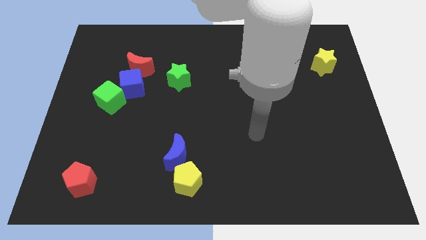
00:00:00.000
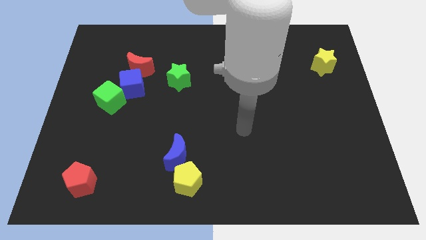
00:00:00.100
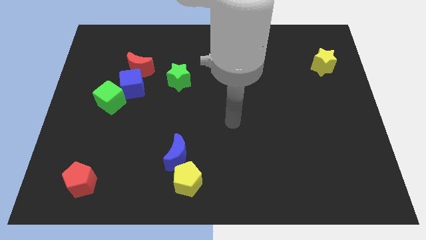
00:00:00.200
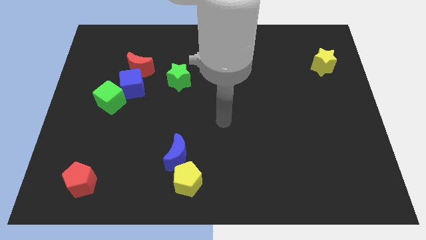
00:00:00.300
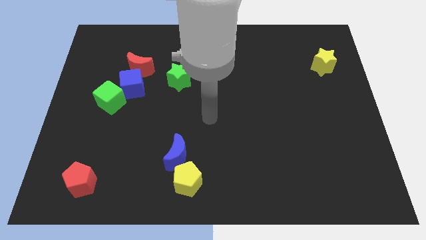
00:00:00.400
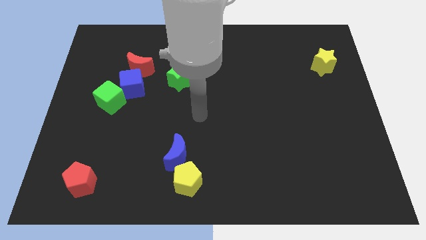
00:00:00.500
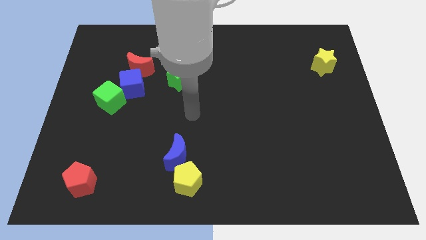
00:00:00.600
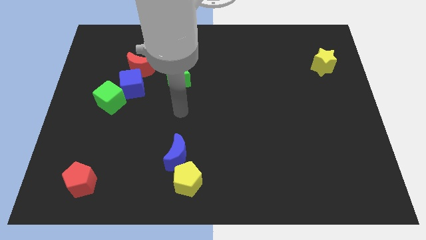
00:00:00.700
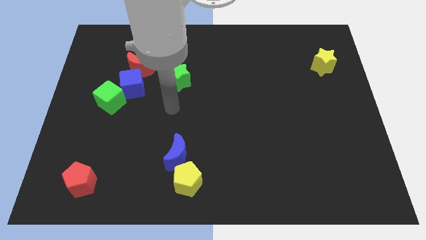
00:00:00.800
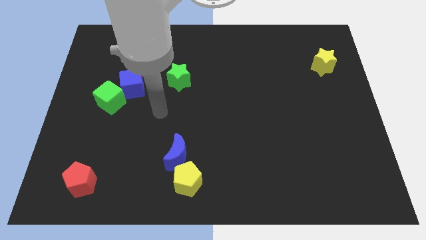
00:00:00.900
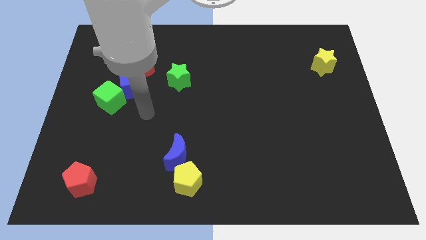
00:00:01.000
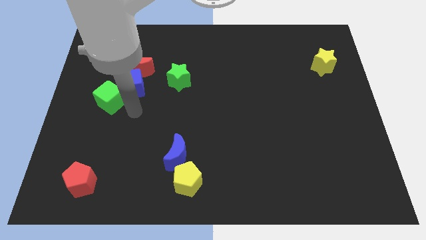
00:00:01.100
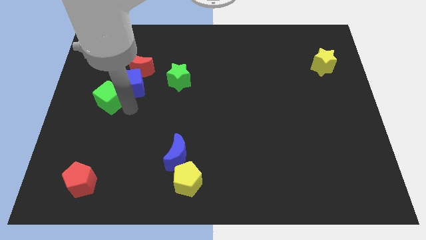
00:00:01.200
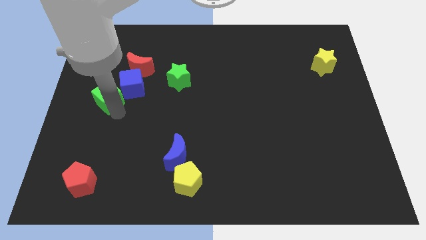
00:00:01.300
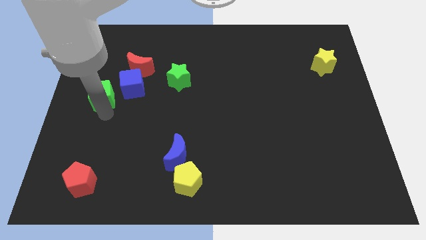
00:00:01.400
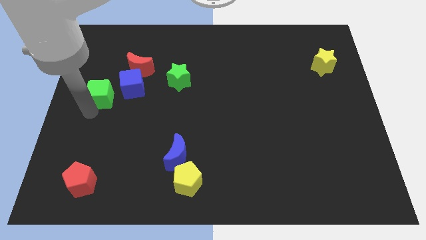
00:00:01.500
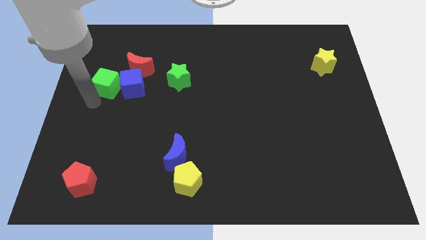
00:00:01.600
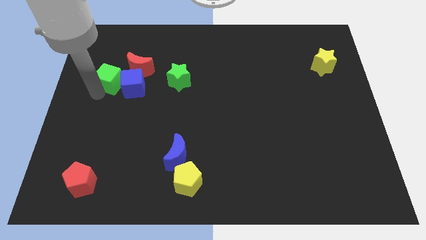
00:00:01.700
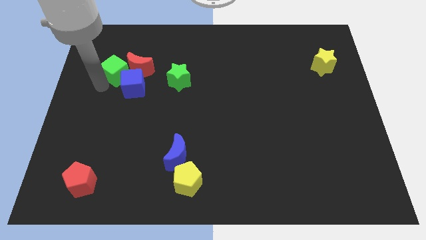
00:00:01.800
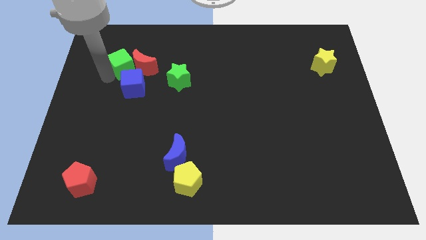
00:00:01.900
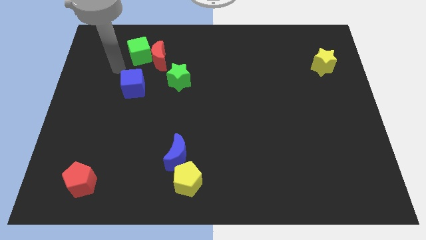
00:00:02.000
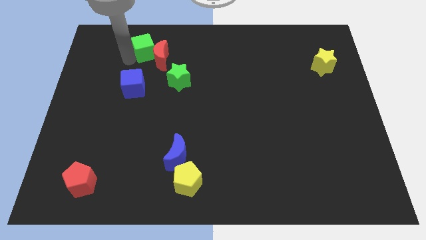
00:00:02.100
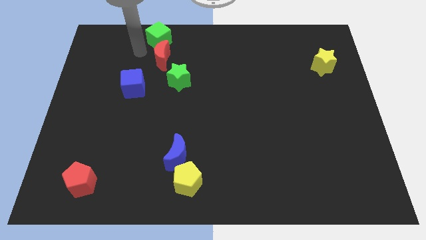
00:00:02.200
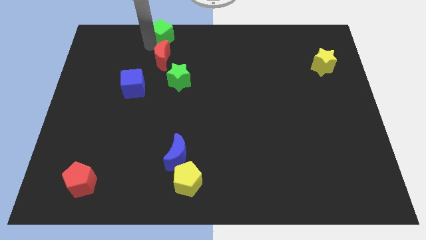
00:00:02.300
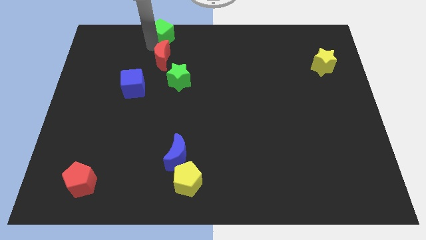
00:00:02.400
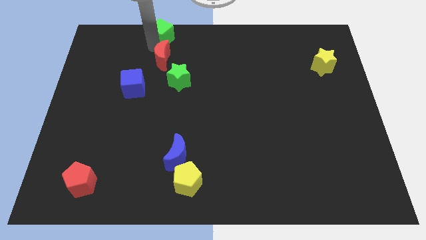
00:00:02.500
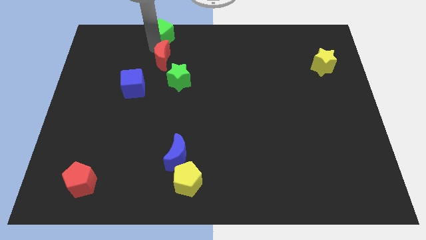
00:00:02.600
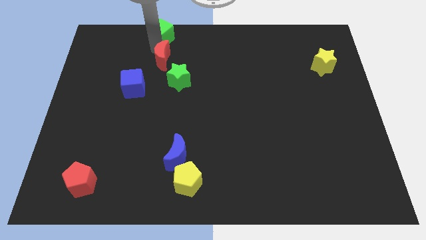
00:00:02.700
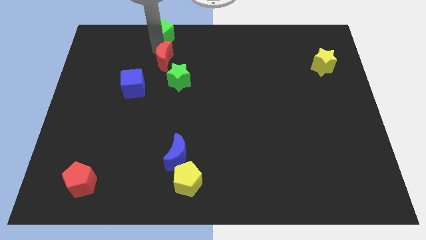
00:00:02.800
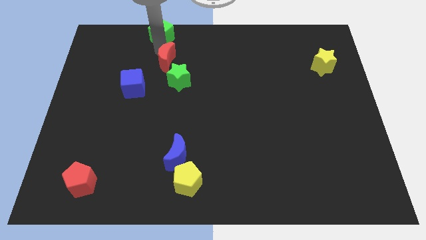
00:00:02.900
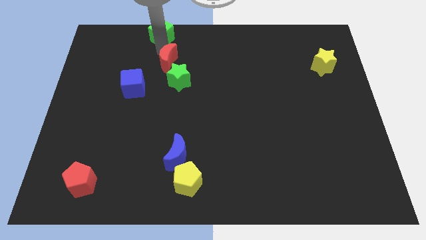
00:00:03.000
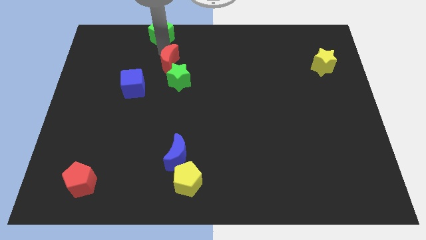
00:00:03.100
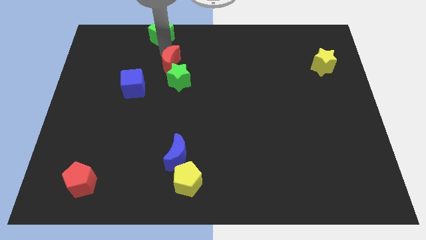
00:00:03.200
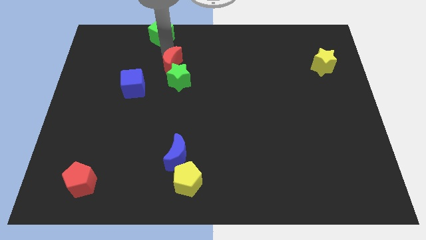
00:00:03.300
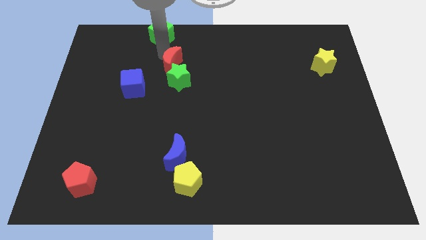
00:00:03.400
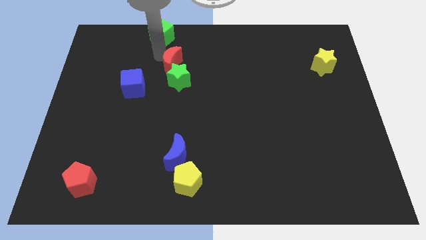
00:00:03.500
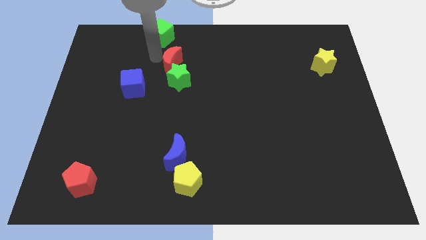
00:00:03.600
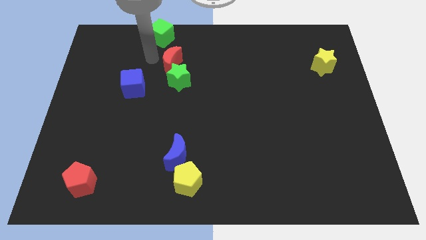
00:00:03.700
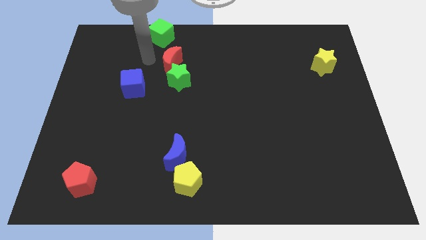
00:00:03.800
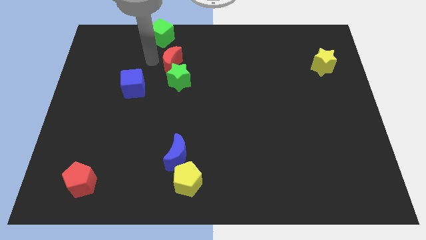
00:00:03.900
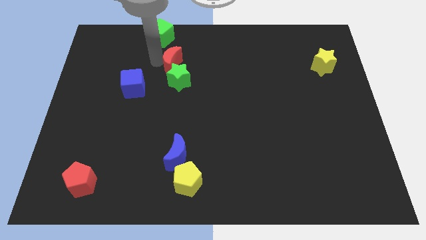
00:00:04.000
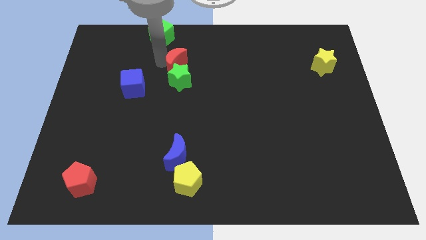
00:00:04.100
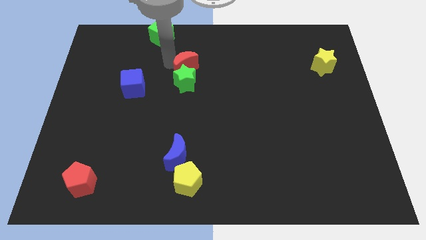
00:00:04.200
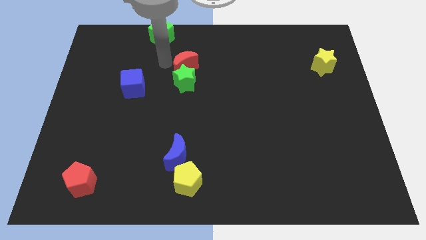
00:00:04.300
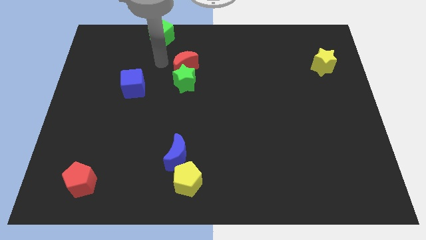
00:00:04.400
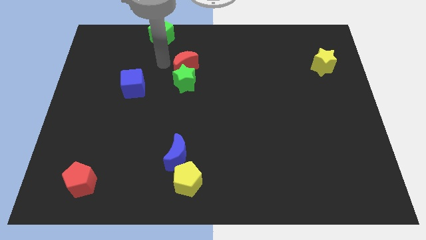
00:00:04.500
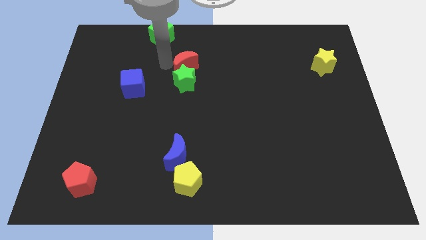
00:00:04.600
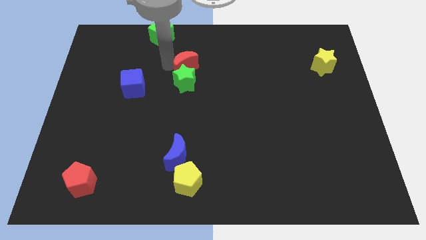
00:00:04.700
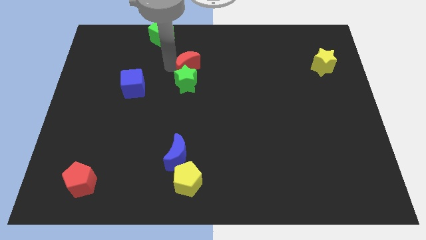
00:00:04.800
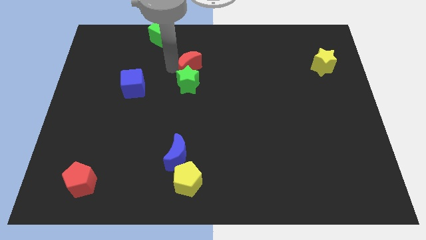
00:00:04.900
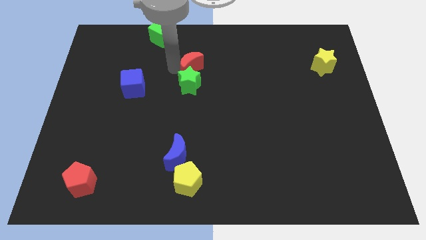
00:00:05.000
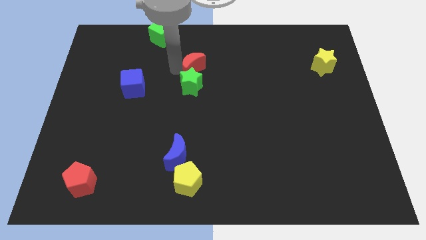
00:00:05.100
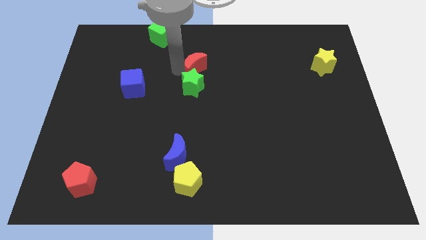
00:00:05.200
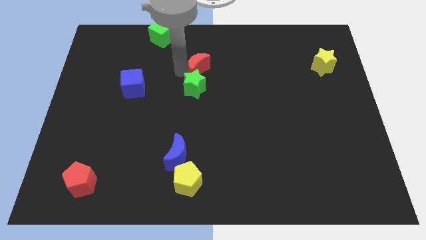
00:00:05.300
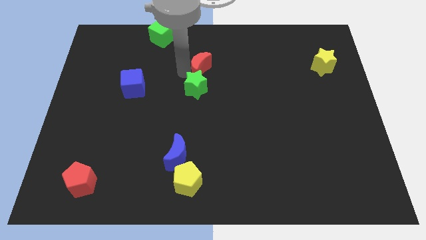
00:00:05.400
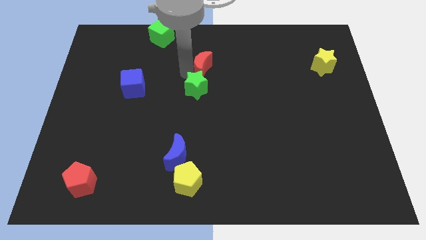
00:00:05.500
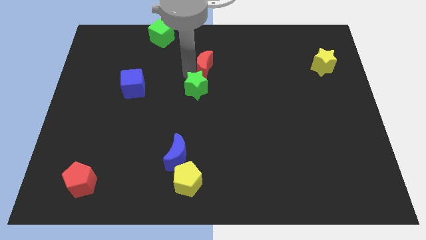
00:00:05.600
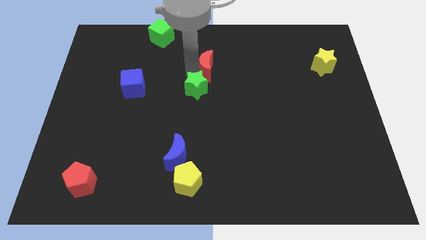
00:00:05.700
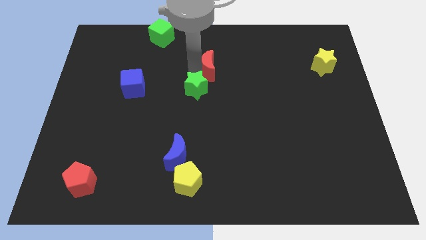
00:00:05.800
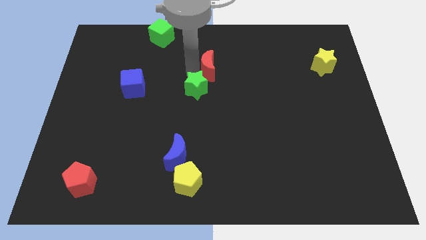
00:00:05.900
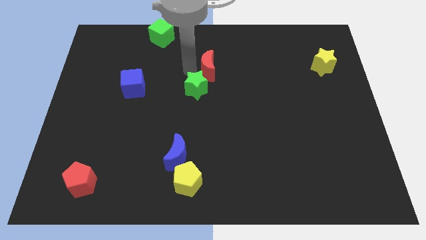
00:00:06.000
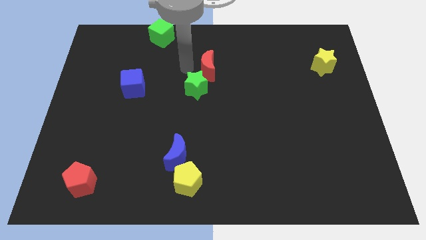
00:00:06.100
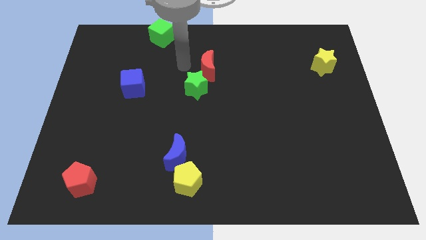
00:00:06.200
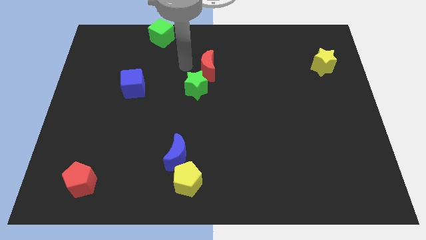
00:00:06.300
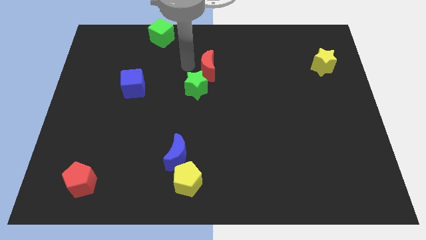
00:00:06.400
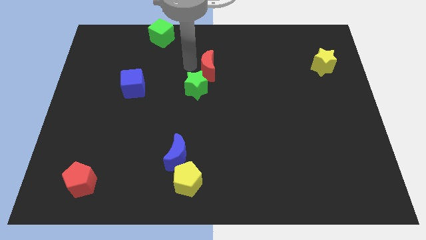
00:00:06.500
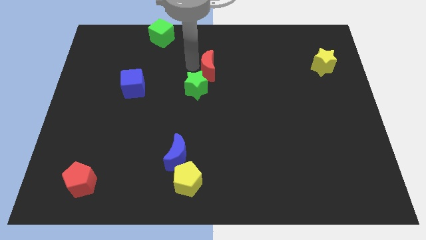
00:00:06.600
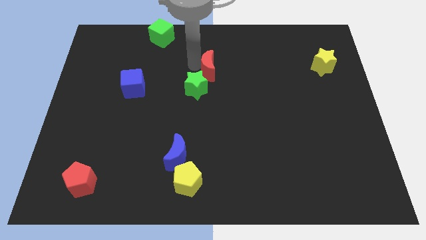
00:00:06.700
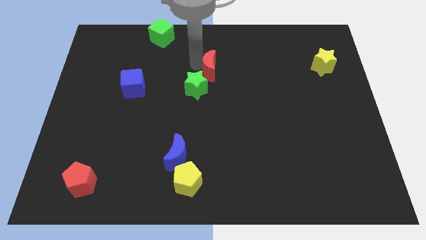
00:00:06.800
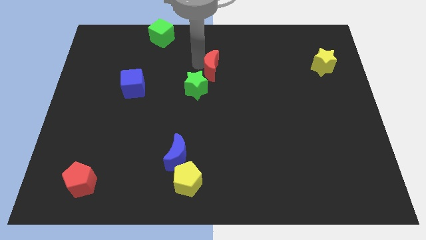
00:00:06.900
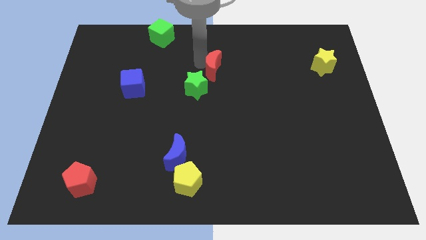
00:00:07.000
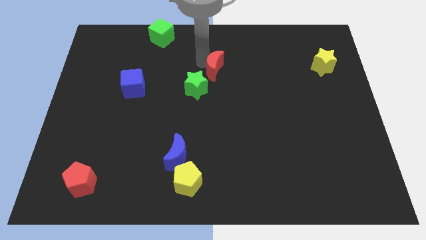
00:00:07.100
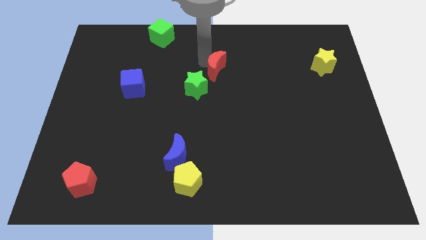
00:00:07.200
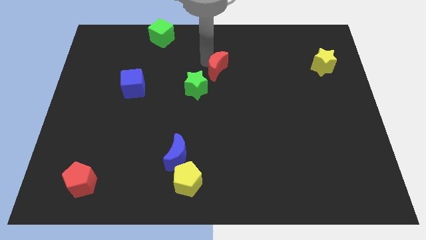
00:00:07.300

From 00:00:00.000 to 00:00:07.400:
move the red moon right

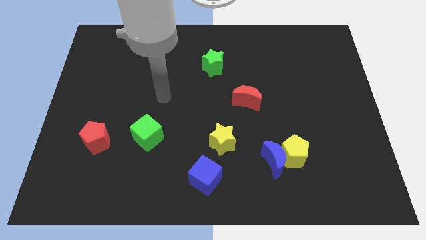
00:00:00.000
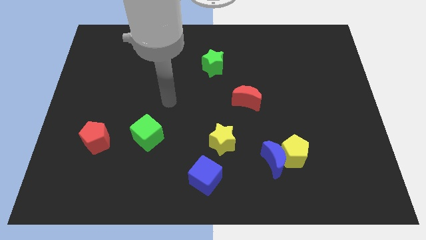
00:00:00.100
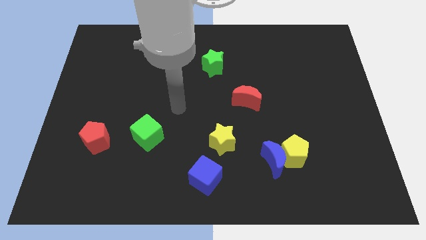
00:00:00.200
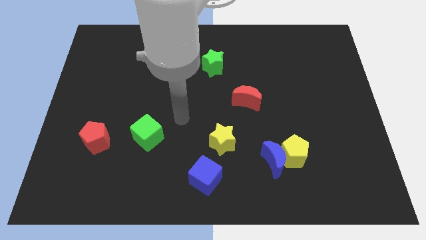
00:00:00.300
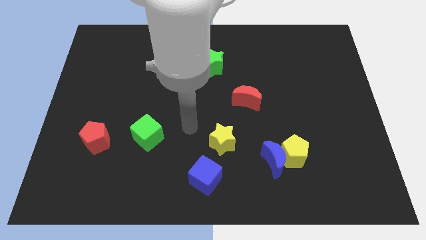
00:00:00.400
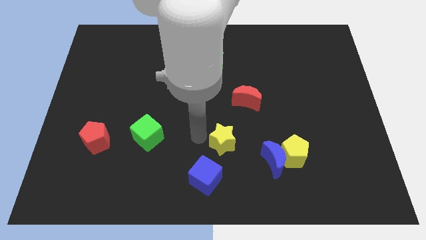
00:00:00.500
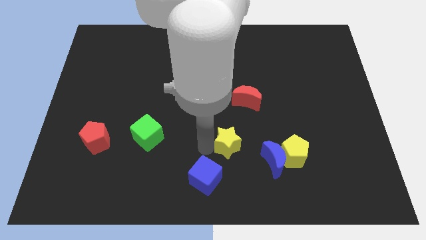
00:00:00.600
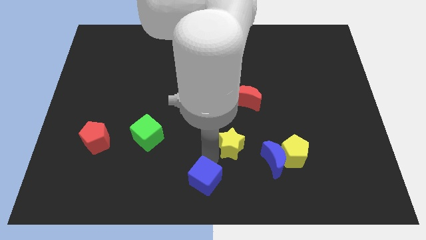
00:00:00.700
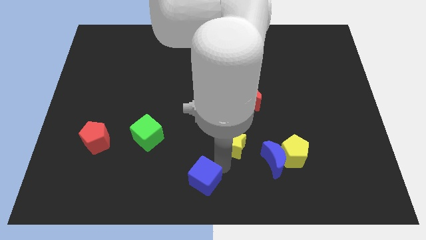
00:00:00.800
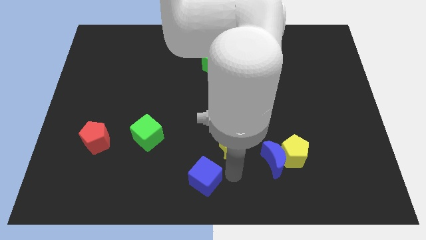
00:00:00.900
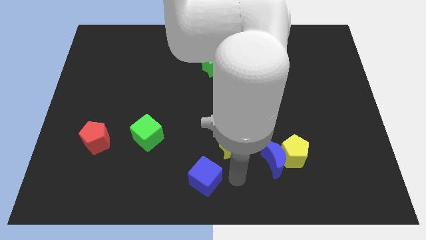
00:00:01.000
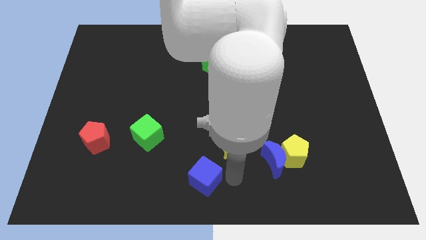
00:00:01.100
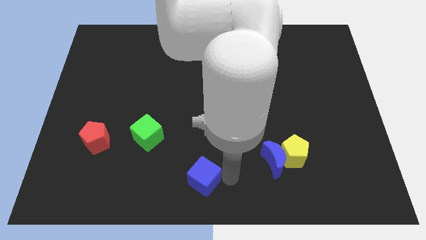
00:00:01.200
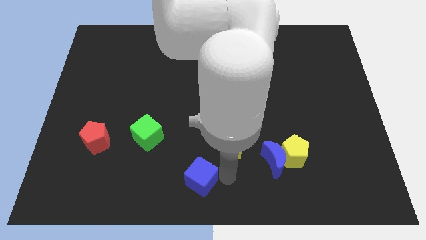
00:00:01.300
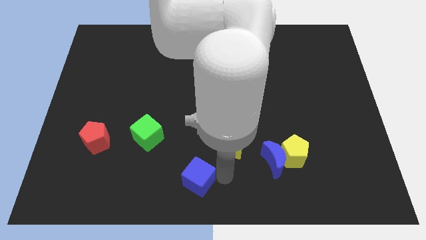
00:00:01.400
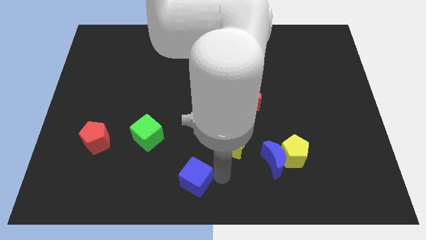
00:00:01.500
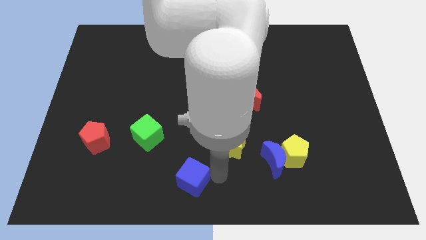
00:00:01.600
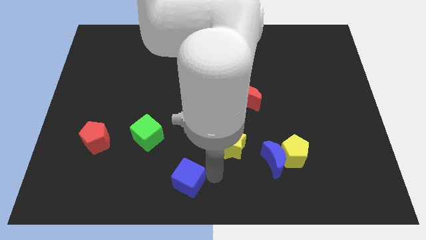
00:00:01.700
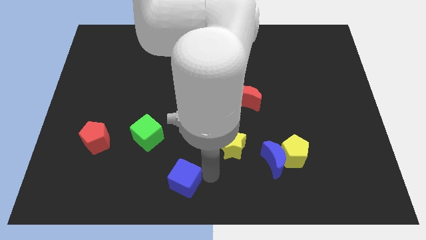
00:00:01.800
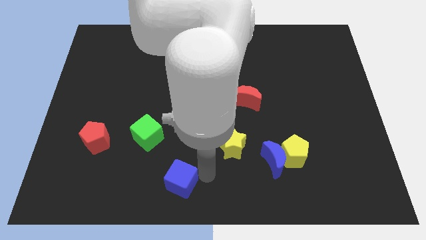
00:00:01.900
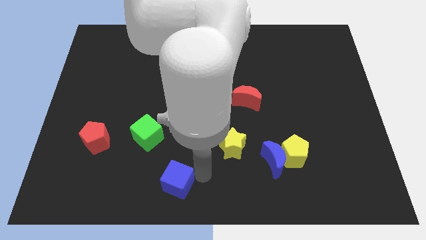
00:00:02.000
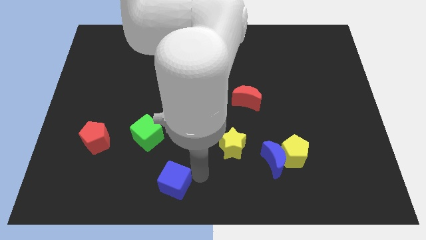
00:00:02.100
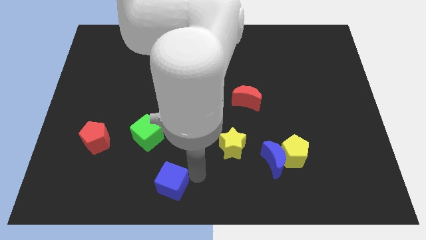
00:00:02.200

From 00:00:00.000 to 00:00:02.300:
move the blue cube to the left a little bit
